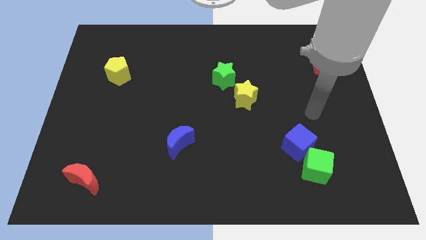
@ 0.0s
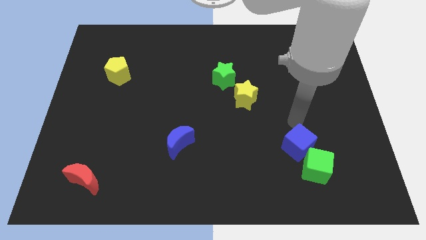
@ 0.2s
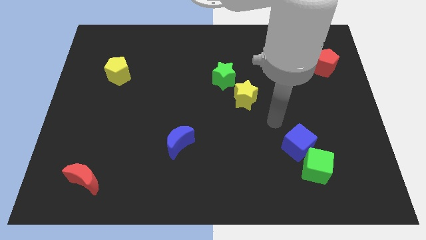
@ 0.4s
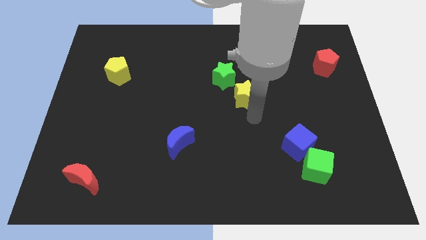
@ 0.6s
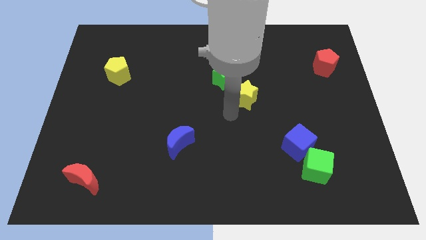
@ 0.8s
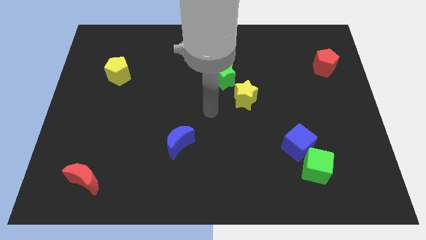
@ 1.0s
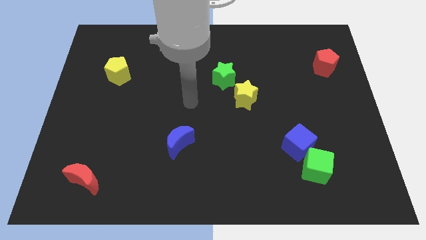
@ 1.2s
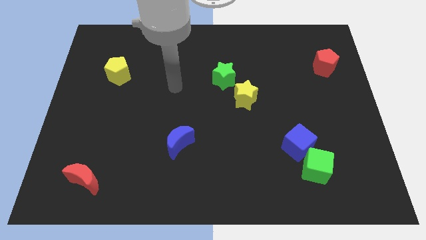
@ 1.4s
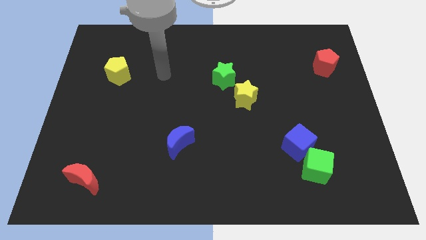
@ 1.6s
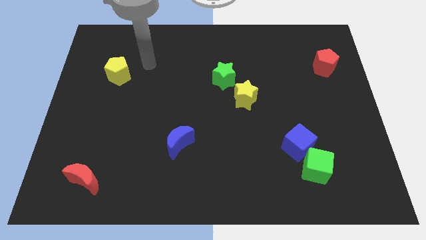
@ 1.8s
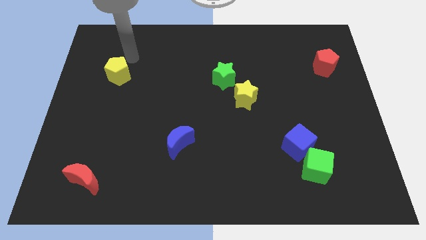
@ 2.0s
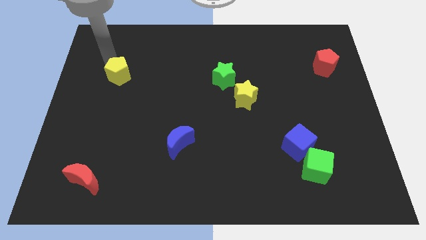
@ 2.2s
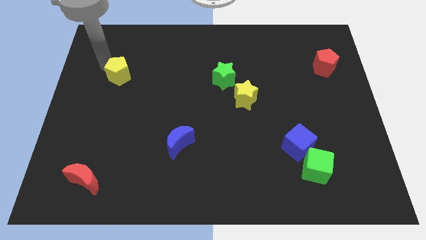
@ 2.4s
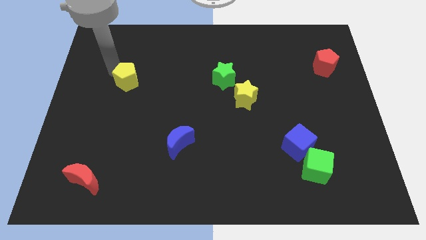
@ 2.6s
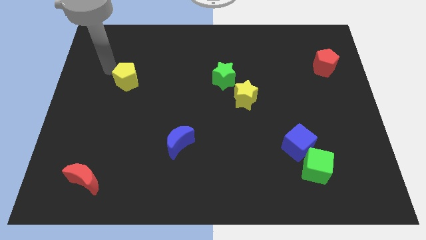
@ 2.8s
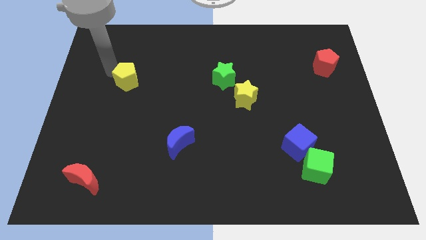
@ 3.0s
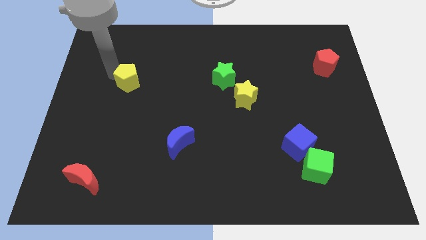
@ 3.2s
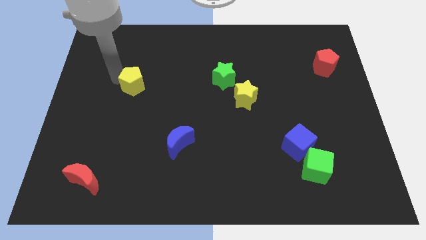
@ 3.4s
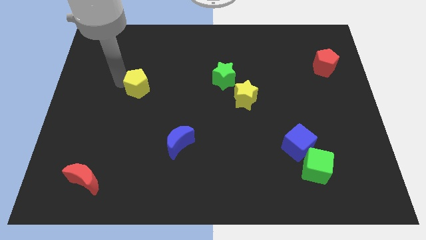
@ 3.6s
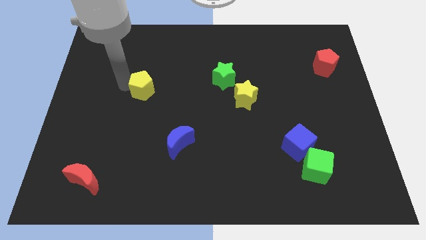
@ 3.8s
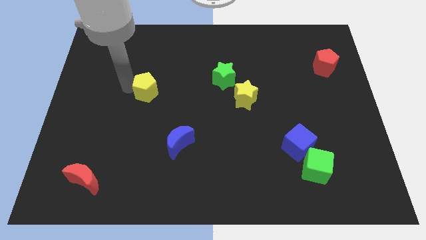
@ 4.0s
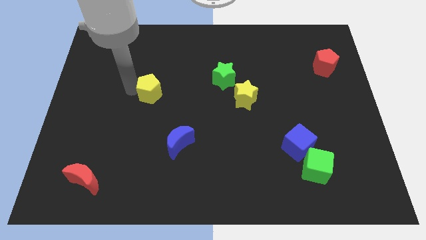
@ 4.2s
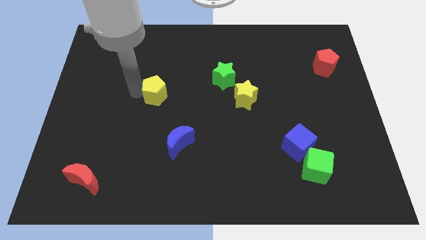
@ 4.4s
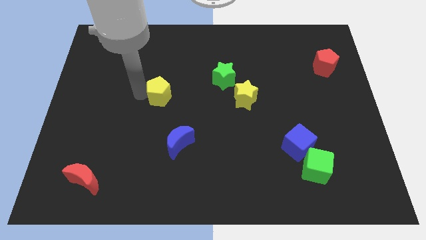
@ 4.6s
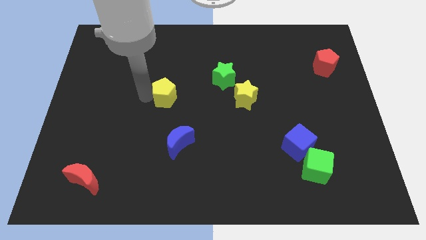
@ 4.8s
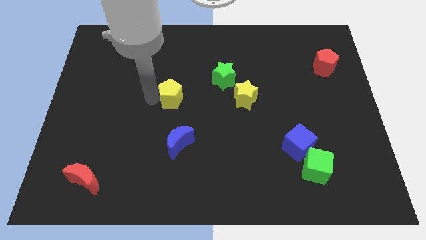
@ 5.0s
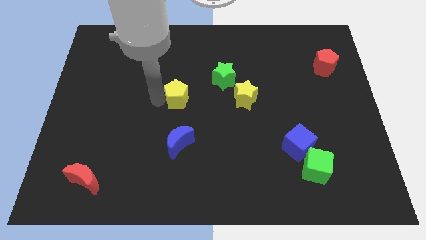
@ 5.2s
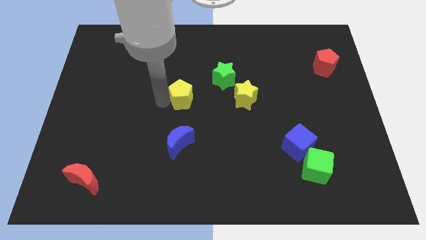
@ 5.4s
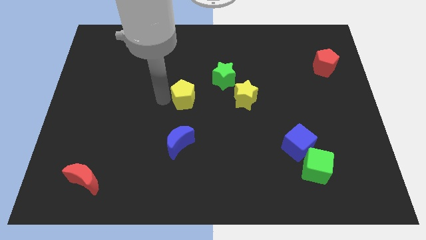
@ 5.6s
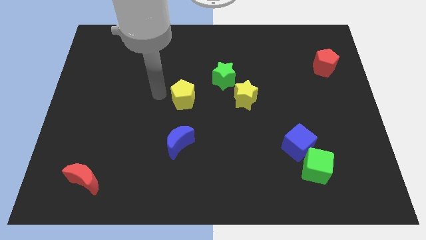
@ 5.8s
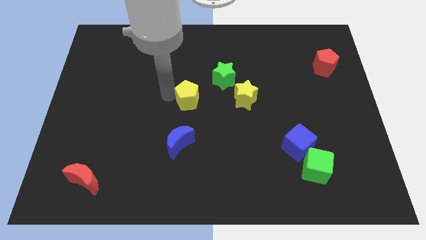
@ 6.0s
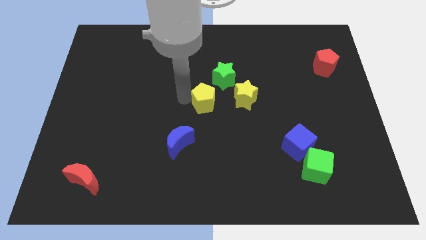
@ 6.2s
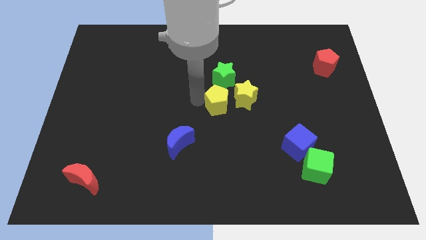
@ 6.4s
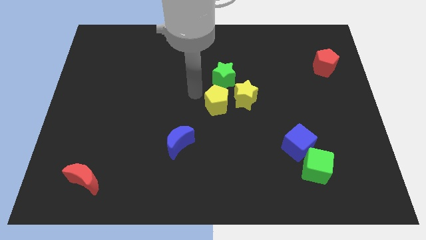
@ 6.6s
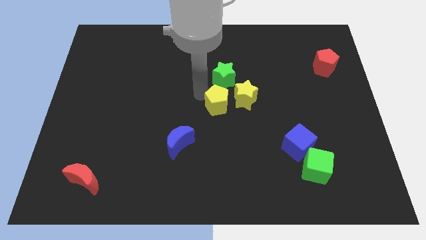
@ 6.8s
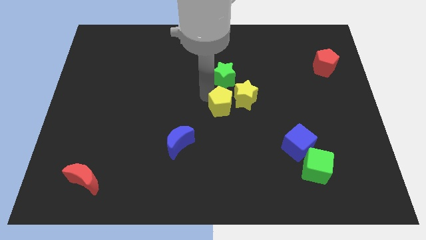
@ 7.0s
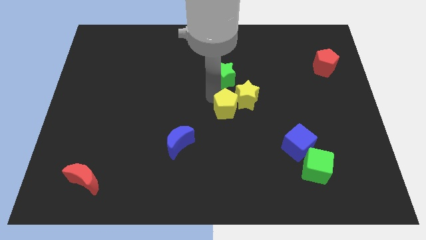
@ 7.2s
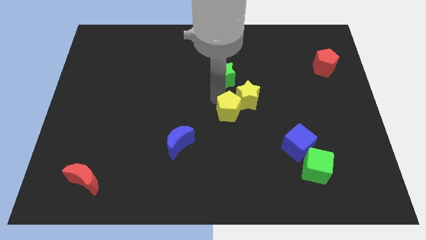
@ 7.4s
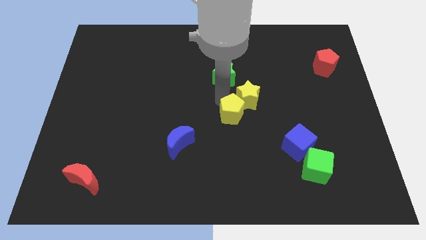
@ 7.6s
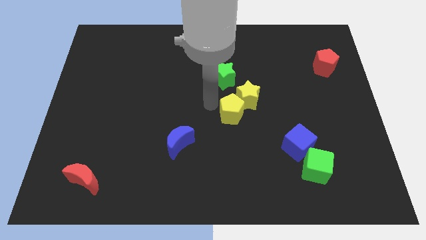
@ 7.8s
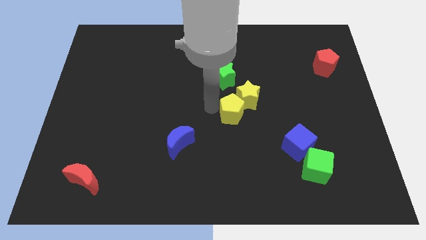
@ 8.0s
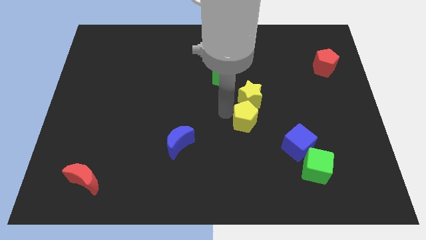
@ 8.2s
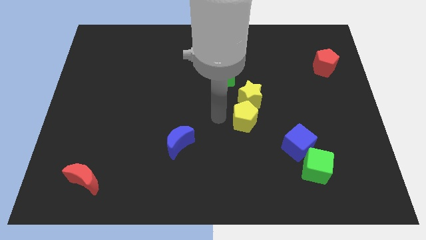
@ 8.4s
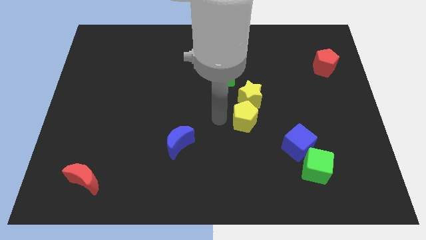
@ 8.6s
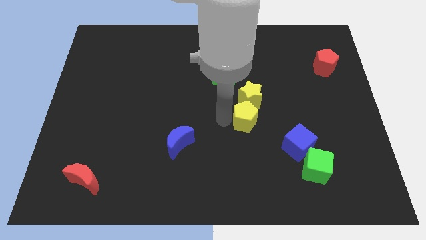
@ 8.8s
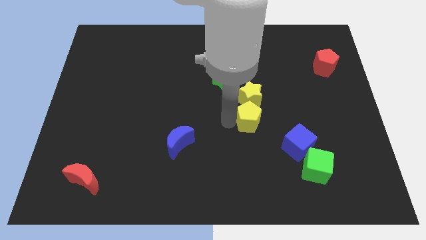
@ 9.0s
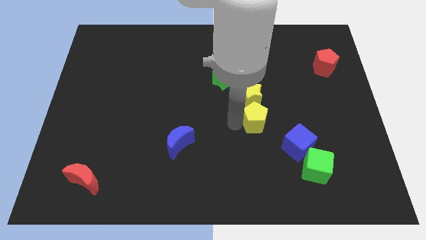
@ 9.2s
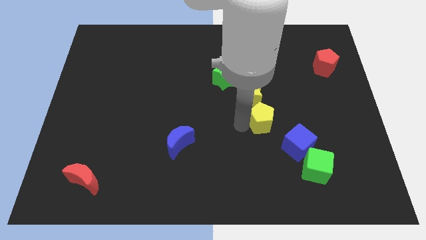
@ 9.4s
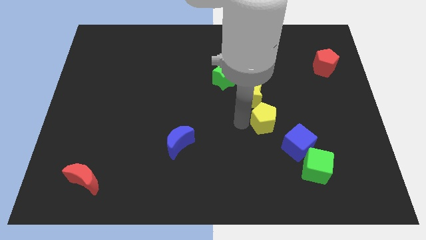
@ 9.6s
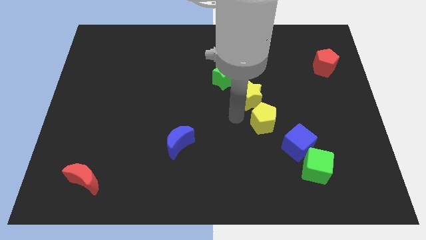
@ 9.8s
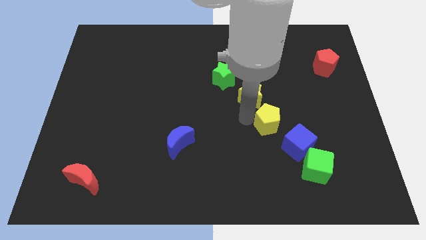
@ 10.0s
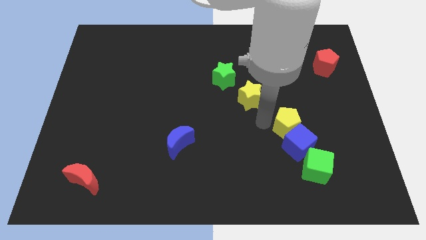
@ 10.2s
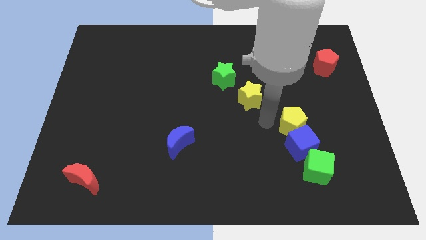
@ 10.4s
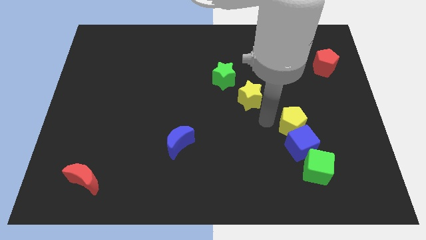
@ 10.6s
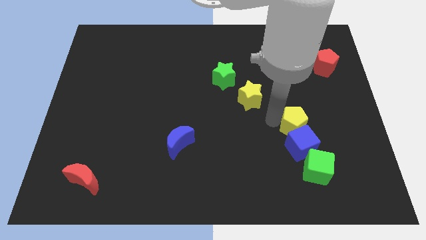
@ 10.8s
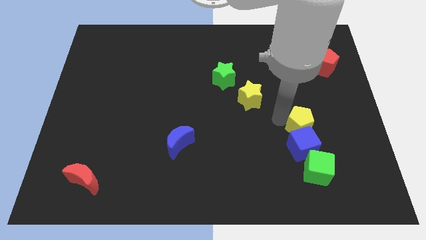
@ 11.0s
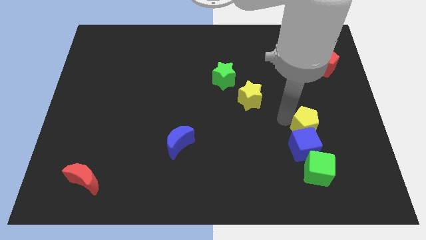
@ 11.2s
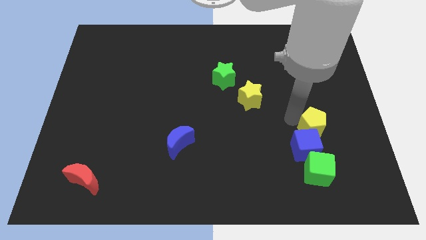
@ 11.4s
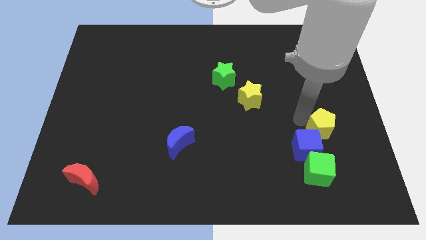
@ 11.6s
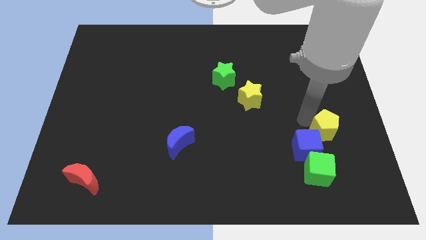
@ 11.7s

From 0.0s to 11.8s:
put the yellow pentagon just right of the blue cube

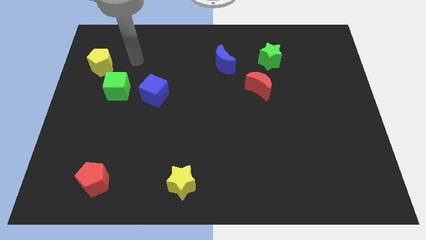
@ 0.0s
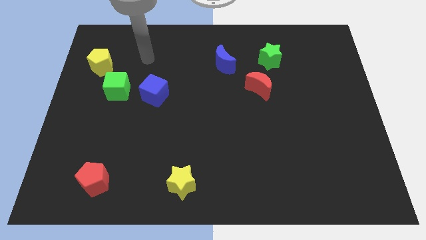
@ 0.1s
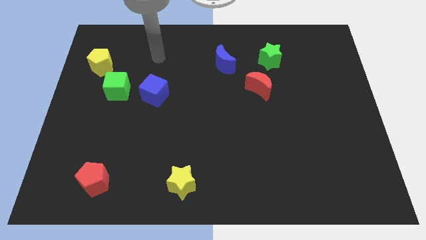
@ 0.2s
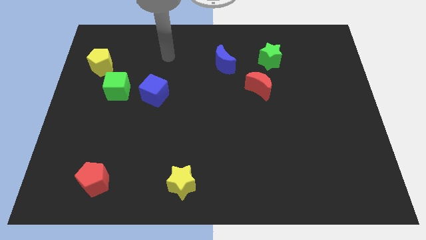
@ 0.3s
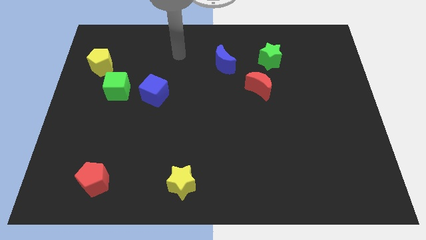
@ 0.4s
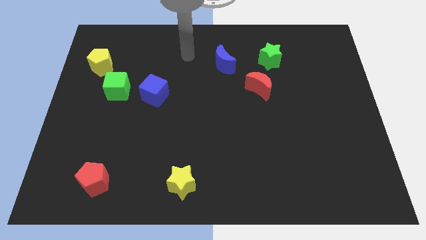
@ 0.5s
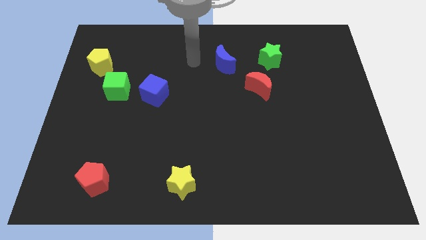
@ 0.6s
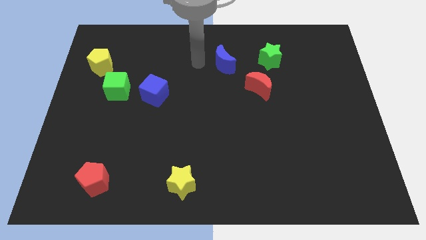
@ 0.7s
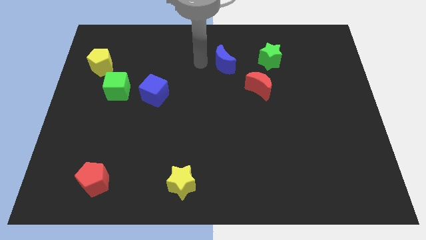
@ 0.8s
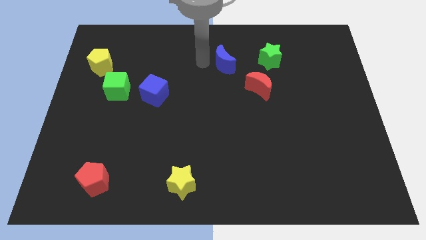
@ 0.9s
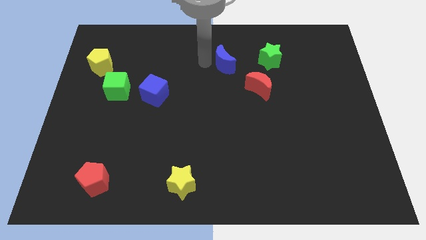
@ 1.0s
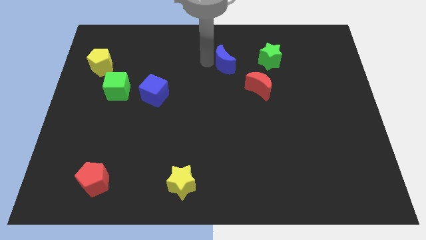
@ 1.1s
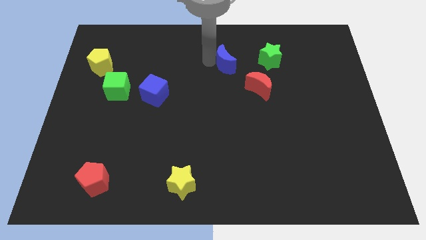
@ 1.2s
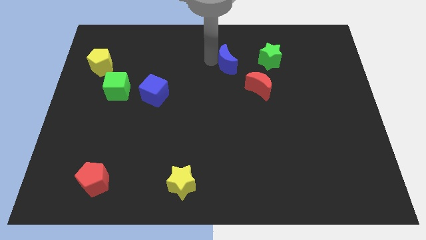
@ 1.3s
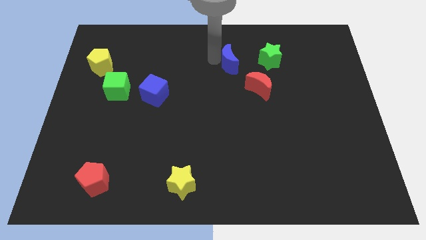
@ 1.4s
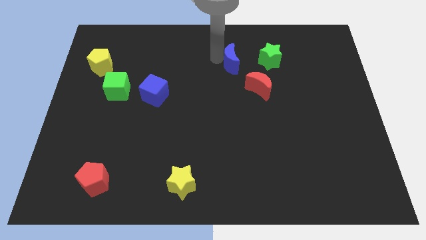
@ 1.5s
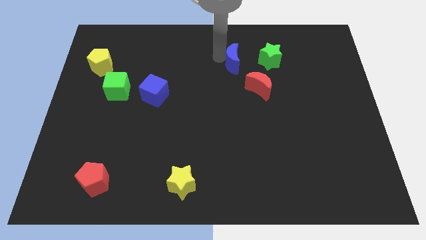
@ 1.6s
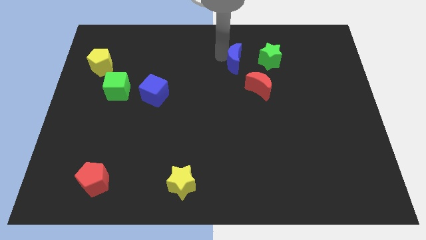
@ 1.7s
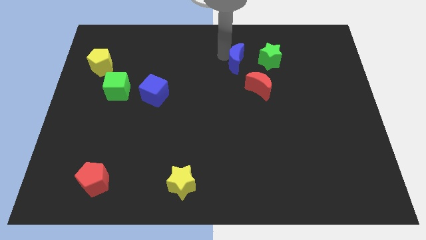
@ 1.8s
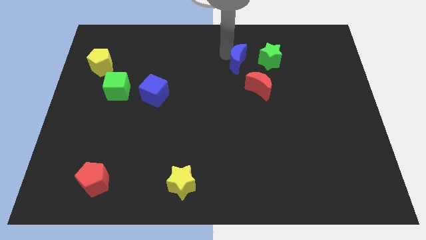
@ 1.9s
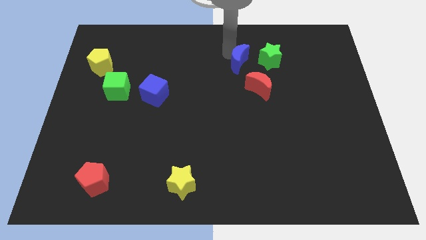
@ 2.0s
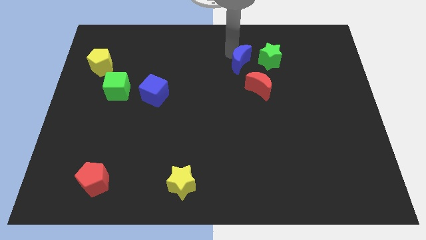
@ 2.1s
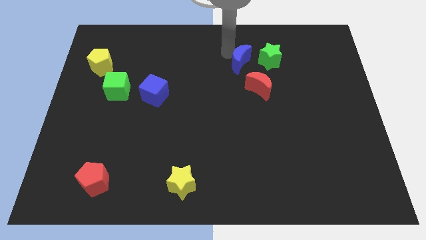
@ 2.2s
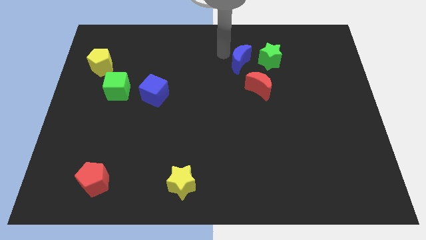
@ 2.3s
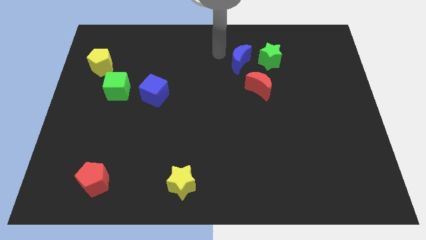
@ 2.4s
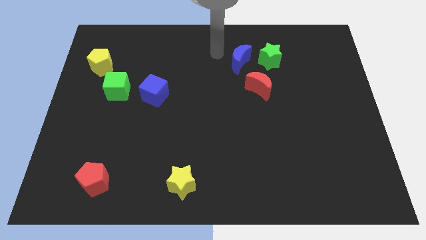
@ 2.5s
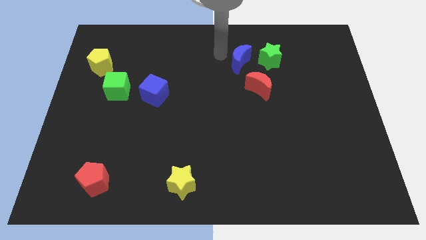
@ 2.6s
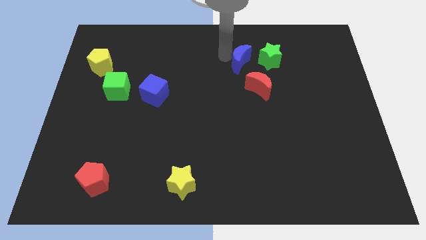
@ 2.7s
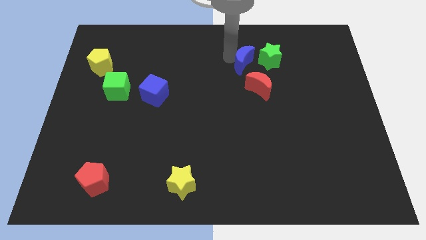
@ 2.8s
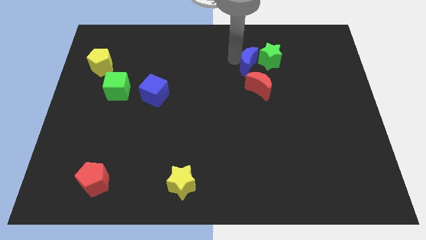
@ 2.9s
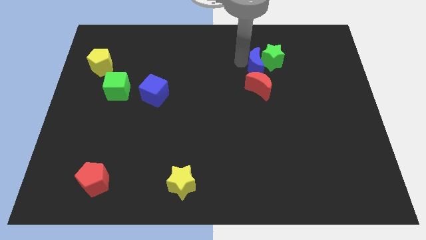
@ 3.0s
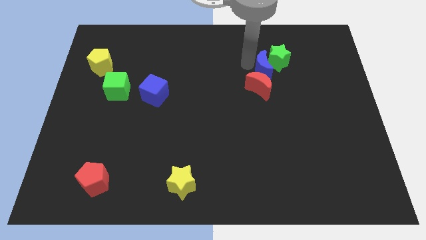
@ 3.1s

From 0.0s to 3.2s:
move the blue moon to the top right of the red moon
